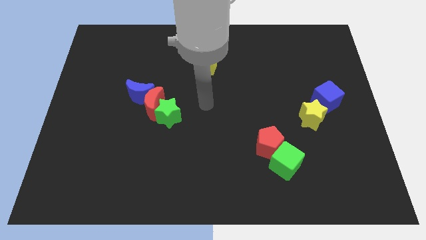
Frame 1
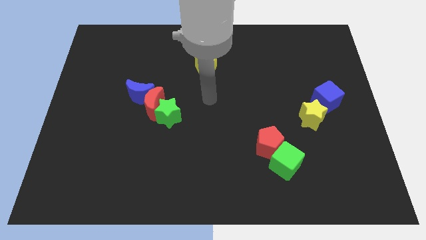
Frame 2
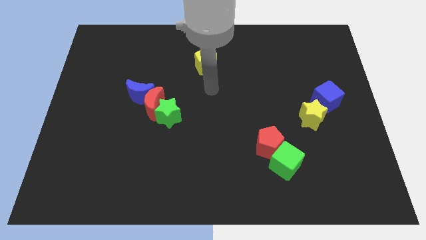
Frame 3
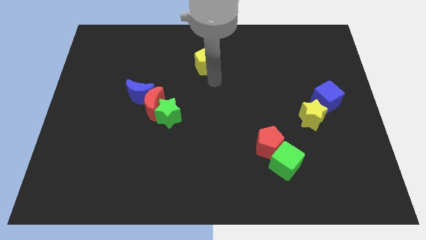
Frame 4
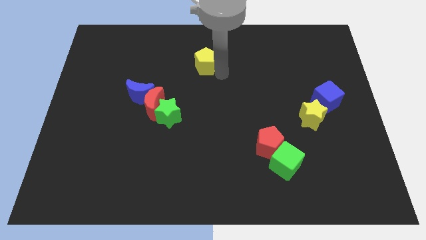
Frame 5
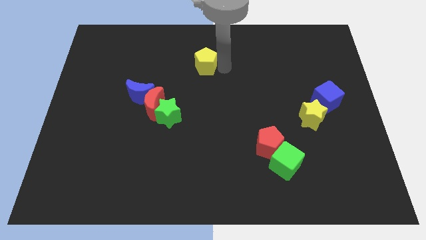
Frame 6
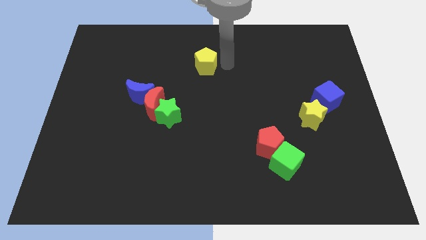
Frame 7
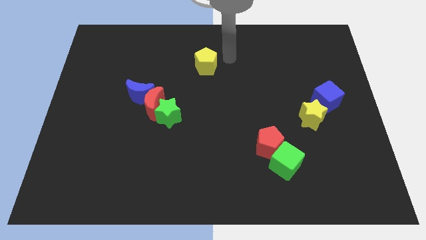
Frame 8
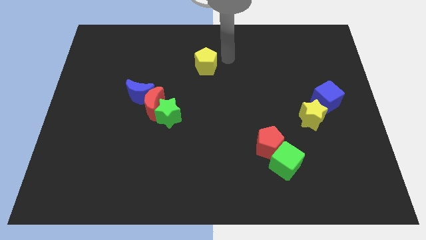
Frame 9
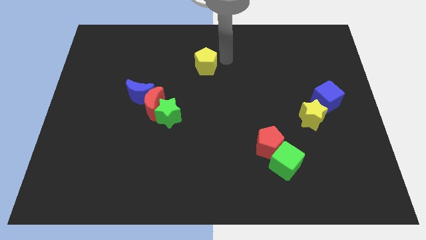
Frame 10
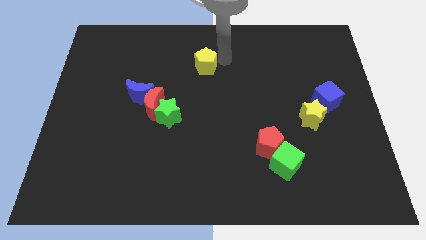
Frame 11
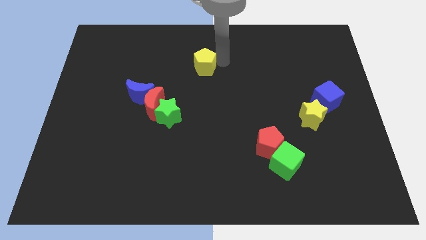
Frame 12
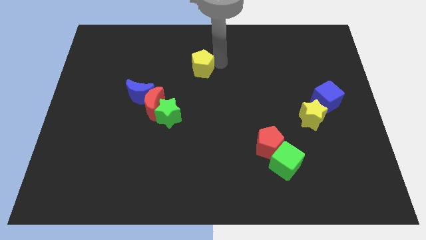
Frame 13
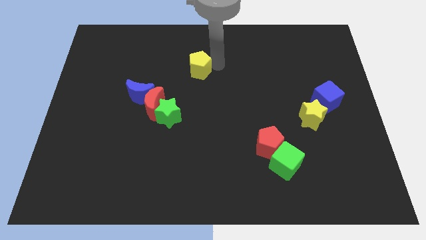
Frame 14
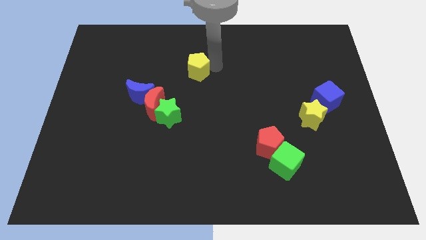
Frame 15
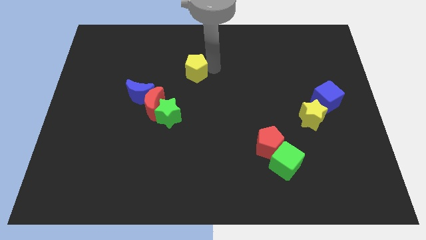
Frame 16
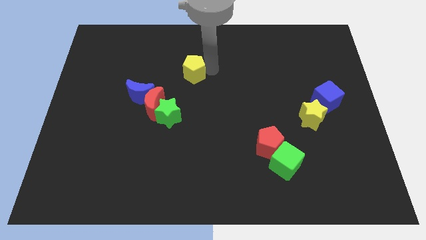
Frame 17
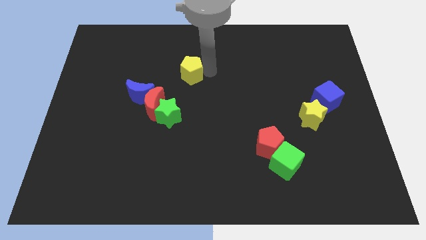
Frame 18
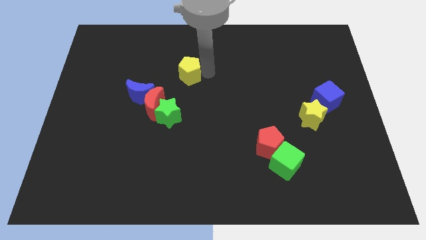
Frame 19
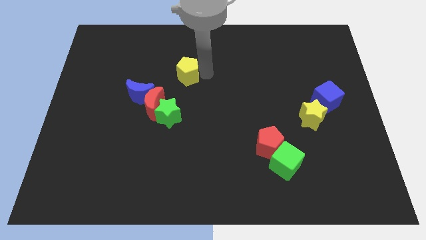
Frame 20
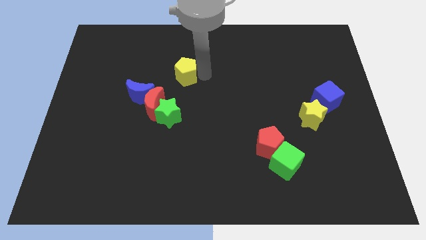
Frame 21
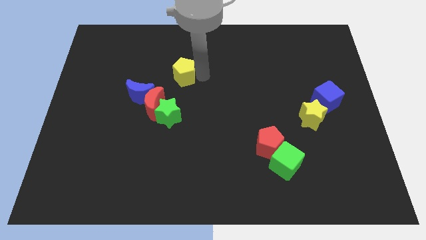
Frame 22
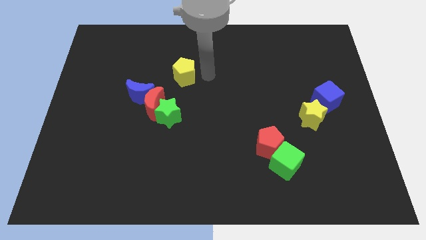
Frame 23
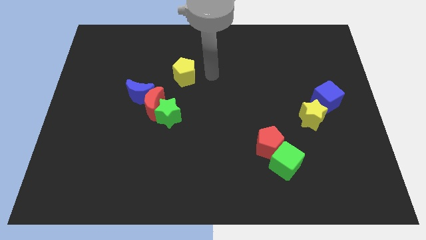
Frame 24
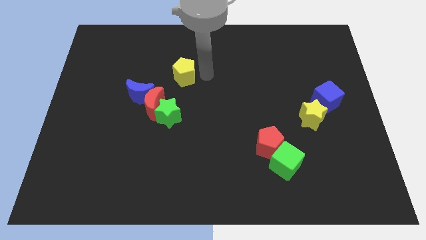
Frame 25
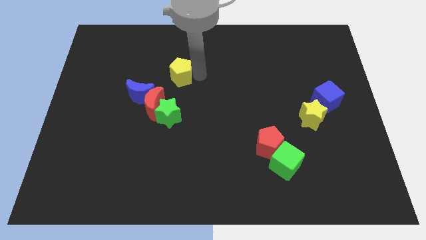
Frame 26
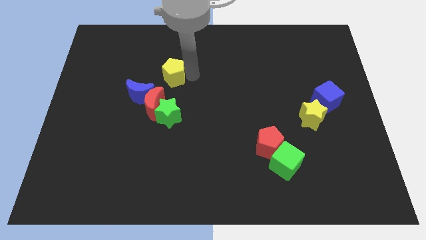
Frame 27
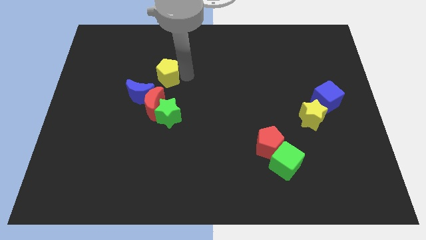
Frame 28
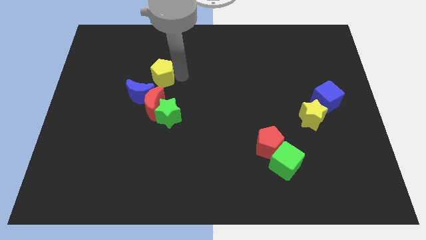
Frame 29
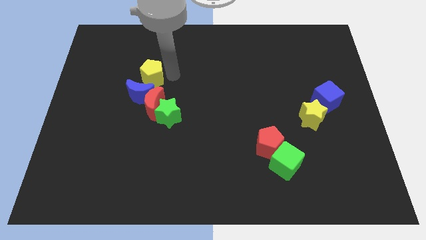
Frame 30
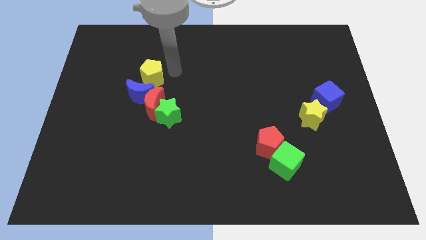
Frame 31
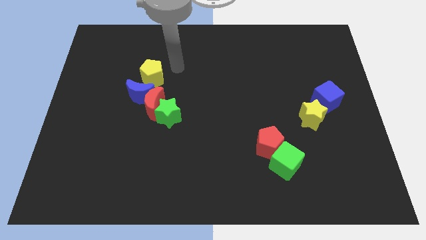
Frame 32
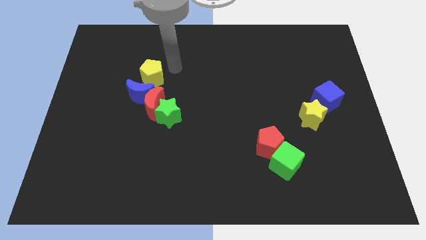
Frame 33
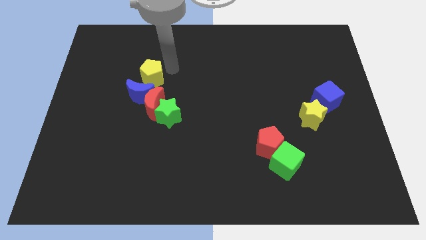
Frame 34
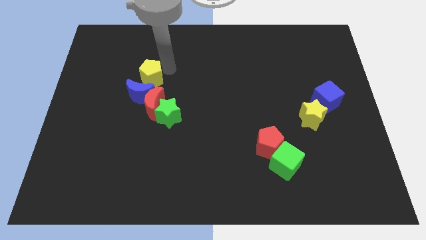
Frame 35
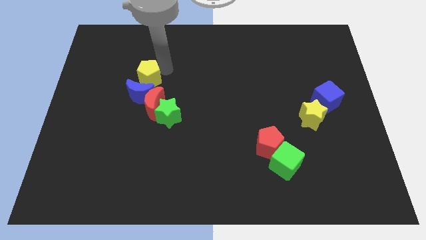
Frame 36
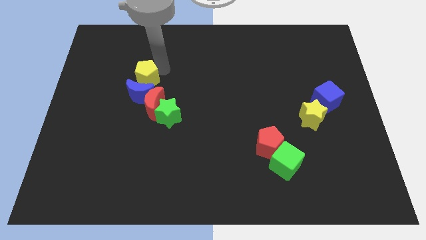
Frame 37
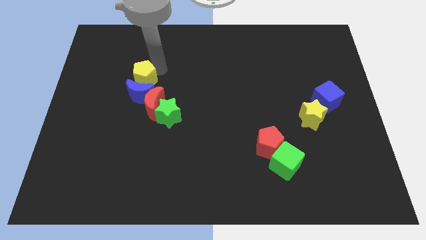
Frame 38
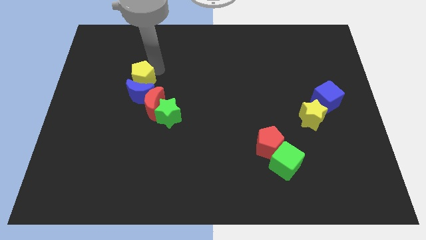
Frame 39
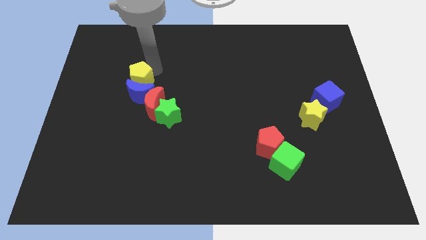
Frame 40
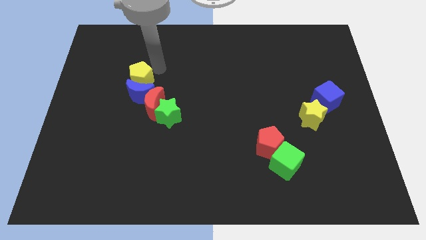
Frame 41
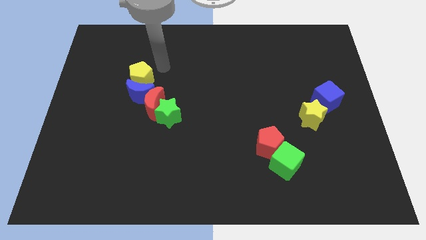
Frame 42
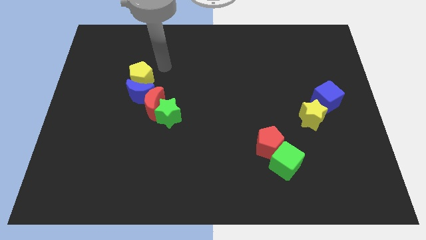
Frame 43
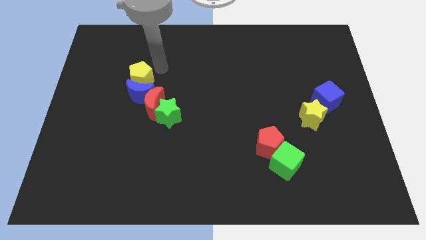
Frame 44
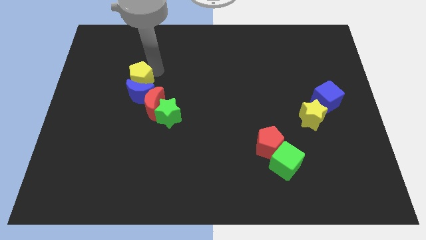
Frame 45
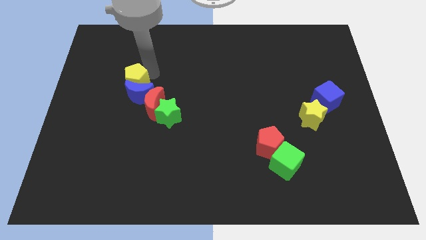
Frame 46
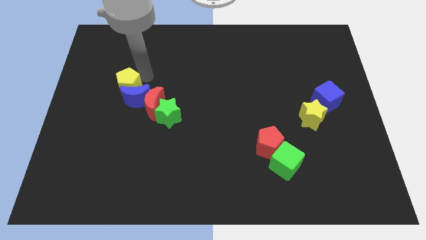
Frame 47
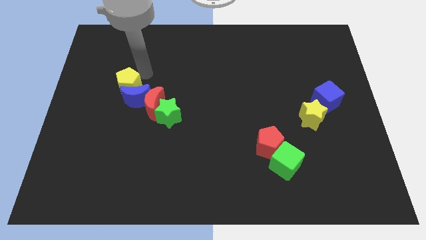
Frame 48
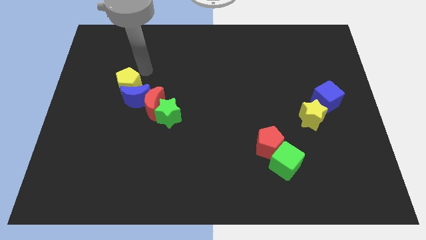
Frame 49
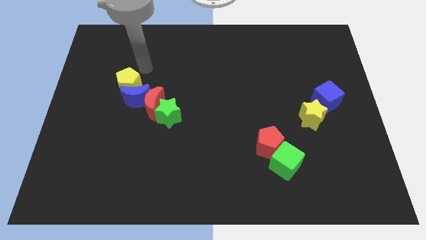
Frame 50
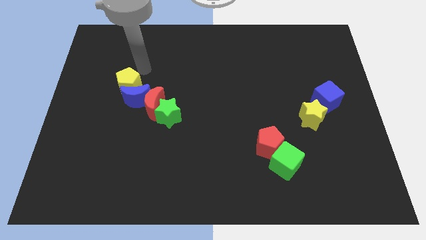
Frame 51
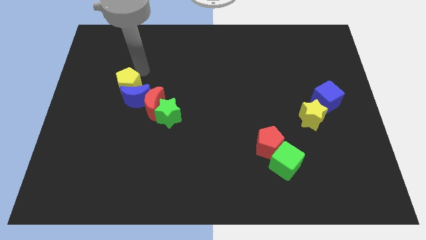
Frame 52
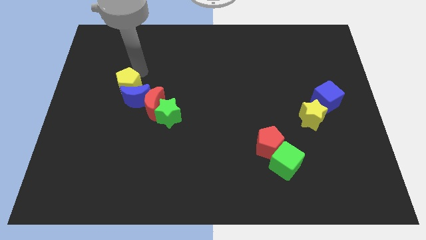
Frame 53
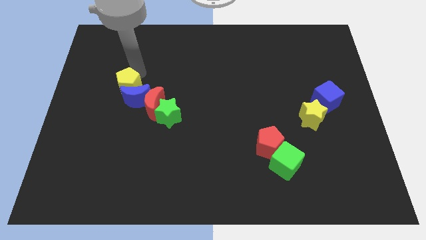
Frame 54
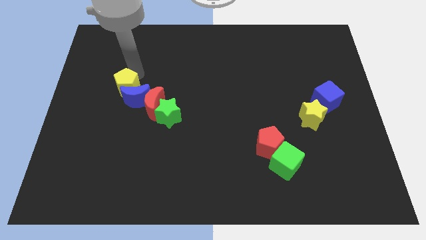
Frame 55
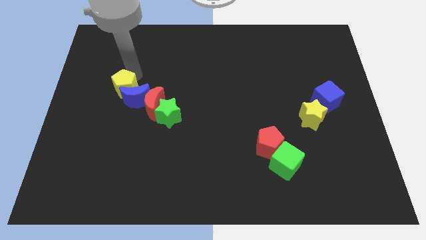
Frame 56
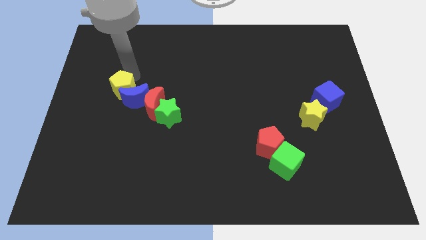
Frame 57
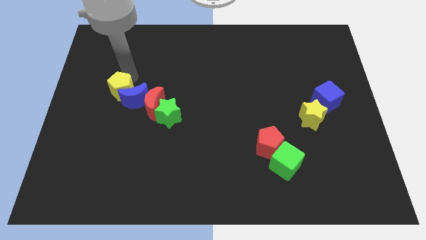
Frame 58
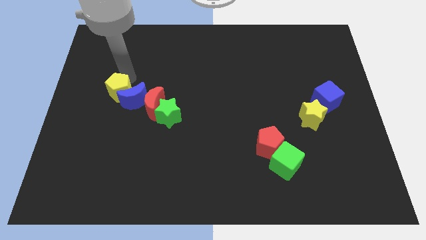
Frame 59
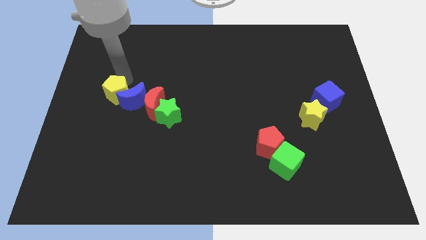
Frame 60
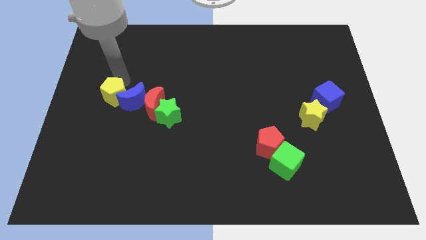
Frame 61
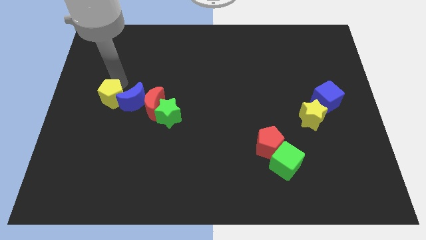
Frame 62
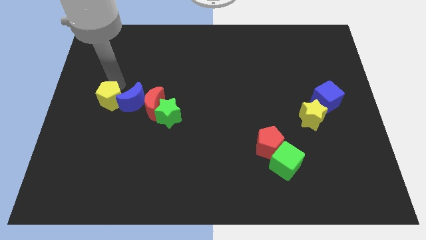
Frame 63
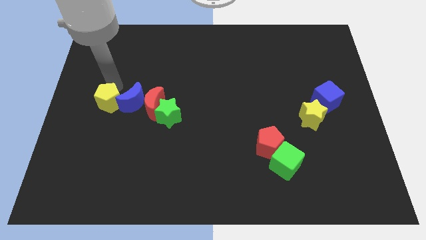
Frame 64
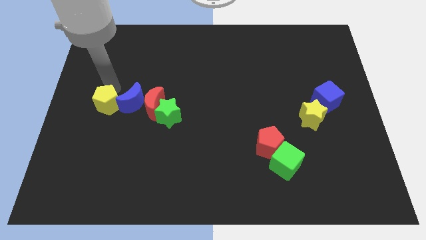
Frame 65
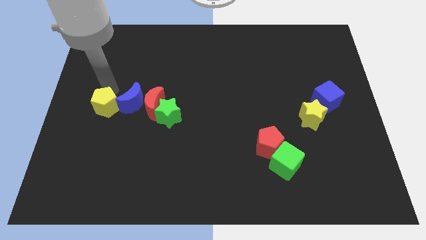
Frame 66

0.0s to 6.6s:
push the yellow pentagon to the left side of the green star

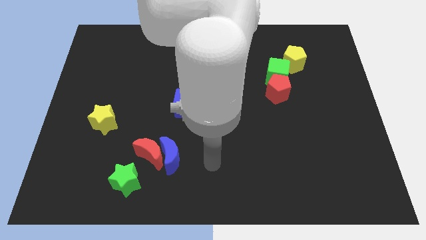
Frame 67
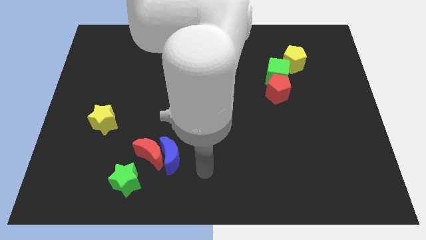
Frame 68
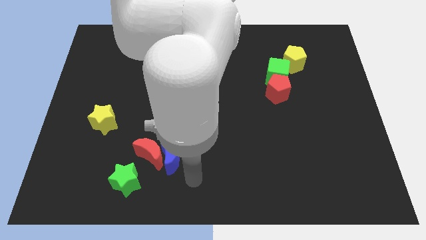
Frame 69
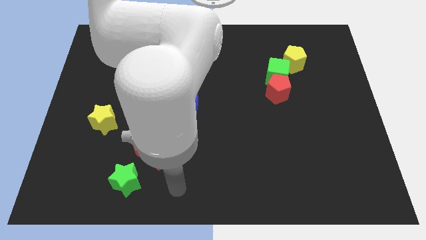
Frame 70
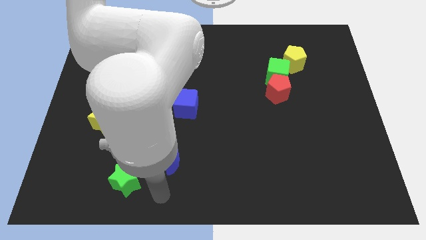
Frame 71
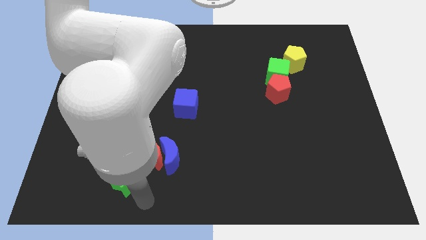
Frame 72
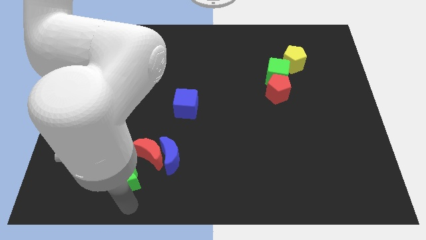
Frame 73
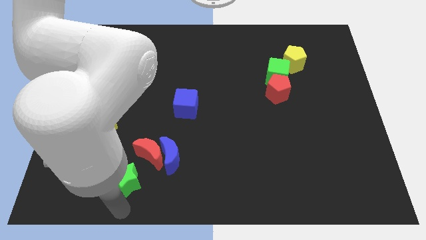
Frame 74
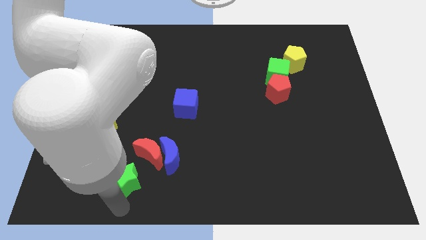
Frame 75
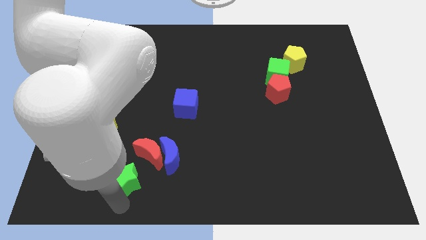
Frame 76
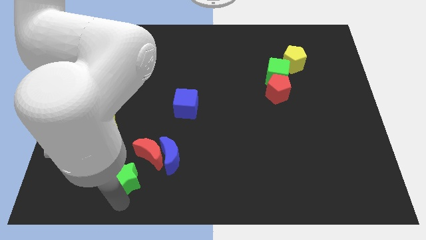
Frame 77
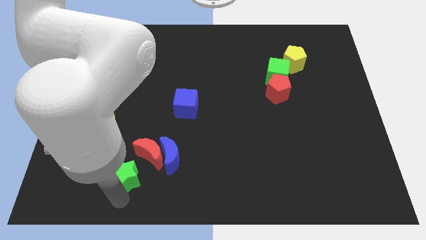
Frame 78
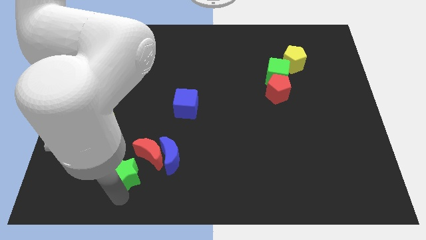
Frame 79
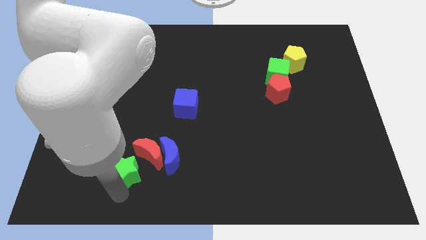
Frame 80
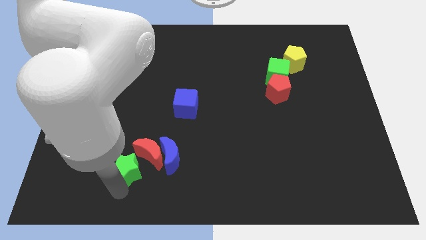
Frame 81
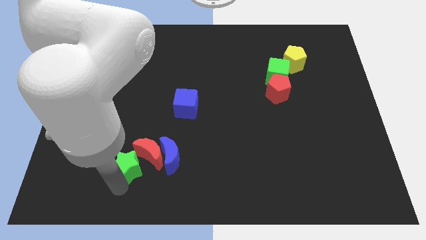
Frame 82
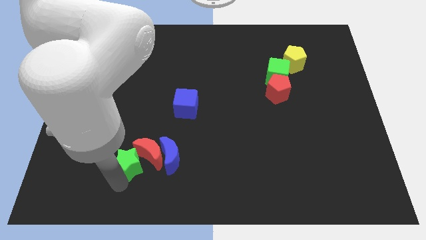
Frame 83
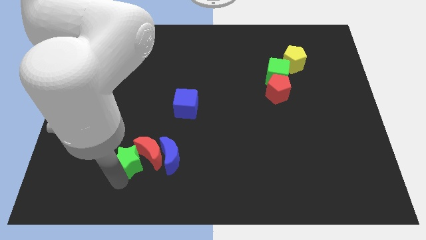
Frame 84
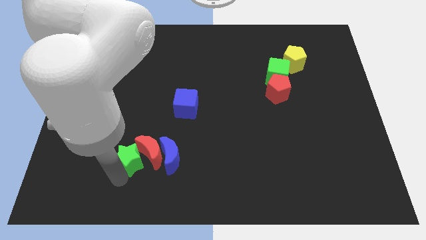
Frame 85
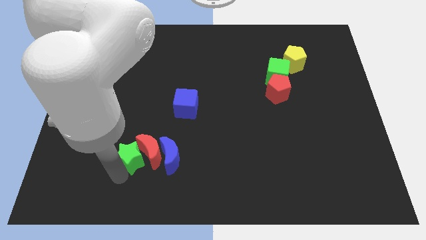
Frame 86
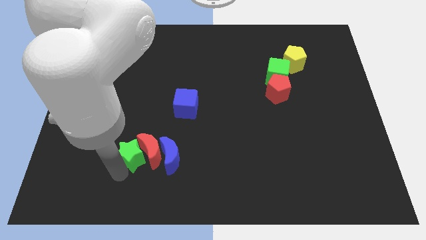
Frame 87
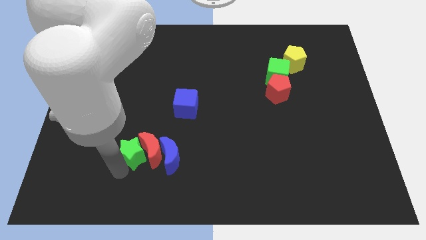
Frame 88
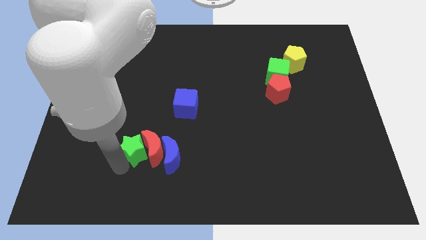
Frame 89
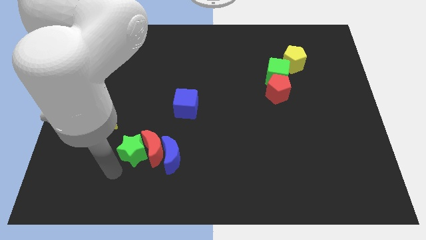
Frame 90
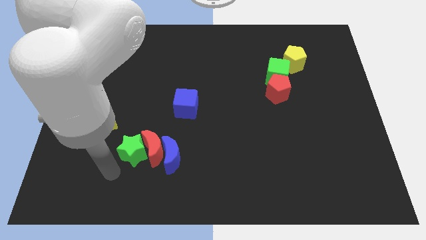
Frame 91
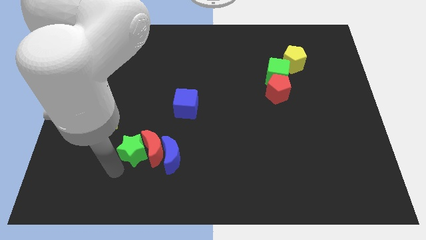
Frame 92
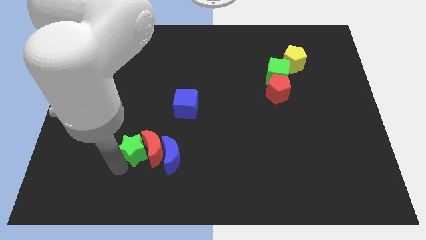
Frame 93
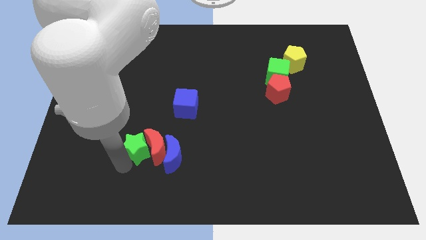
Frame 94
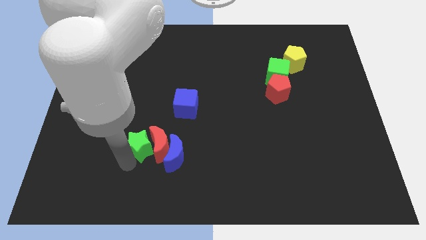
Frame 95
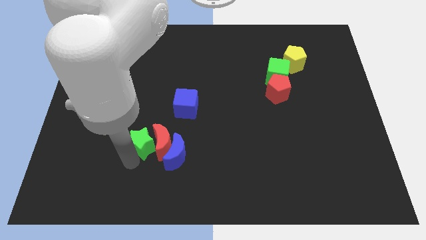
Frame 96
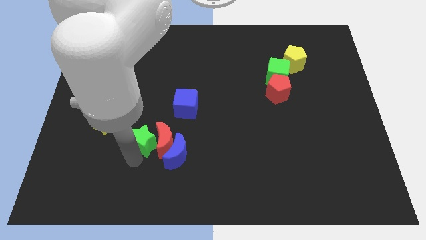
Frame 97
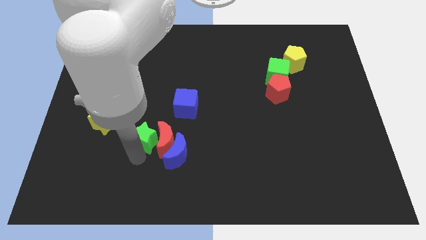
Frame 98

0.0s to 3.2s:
slide the green star to the bottom left of the blue cube
